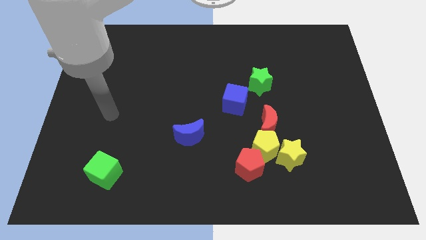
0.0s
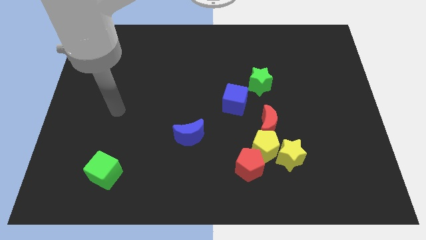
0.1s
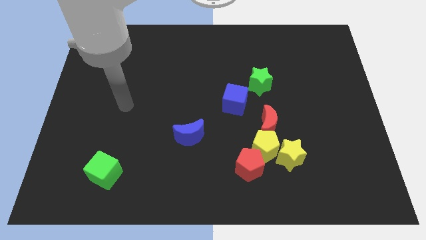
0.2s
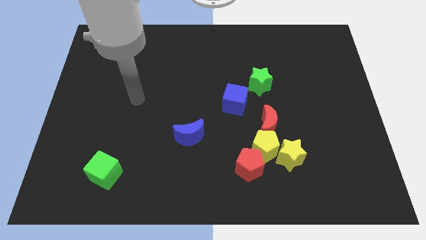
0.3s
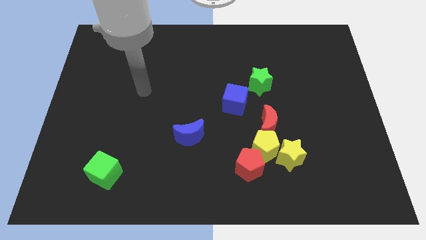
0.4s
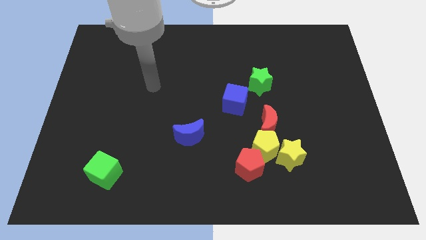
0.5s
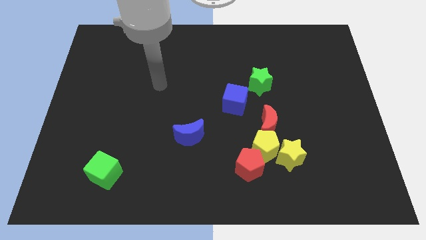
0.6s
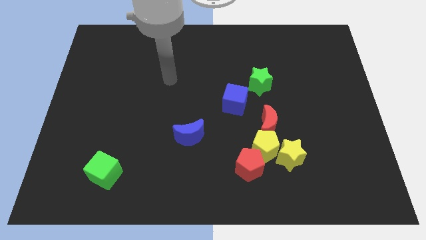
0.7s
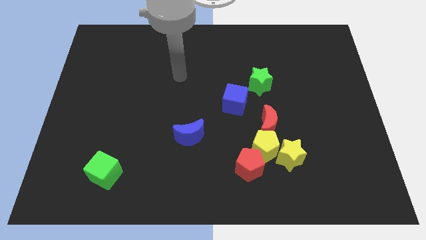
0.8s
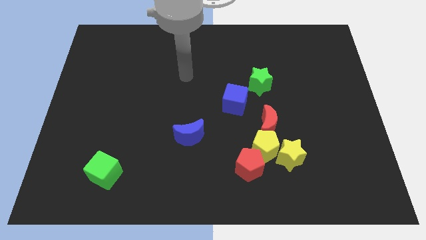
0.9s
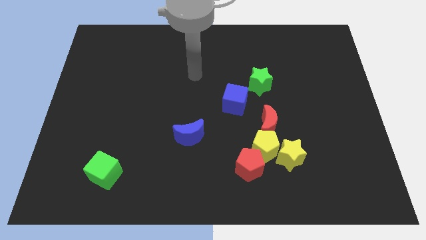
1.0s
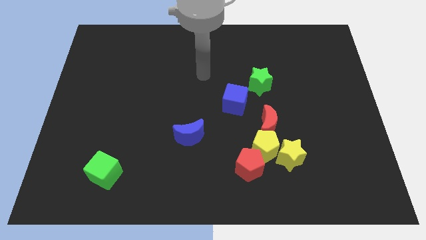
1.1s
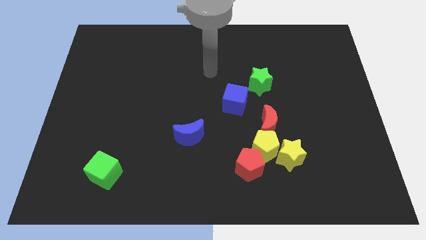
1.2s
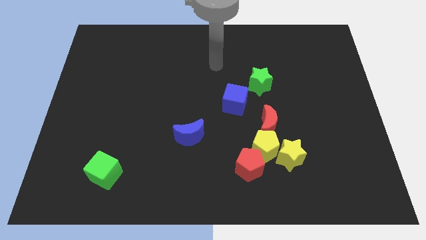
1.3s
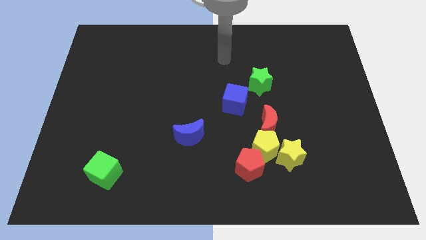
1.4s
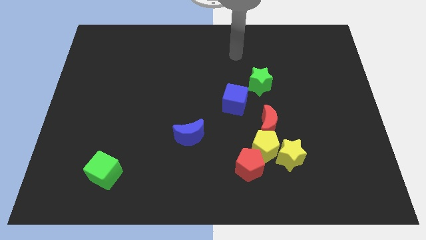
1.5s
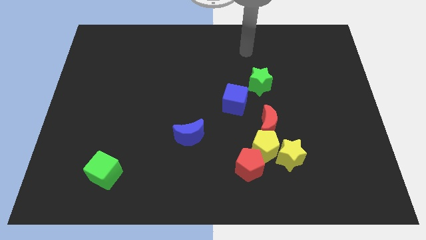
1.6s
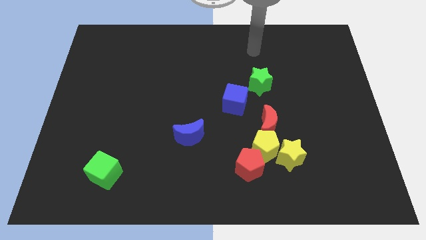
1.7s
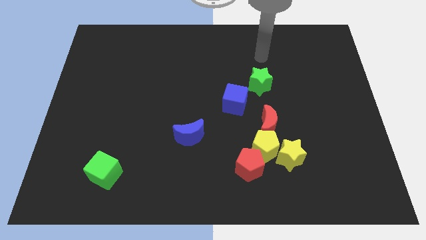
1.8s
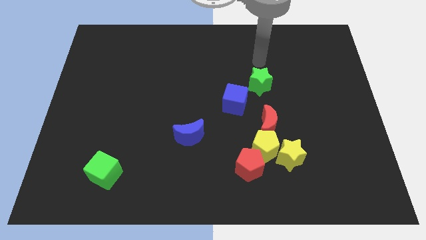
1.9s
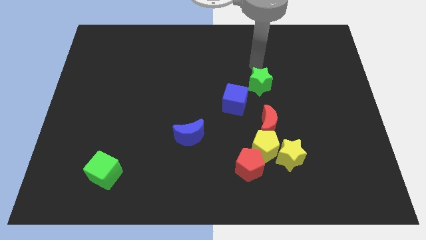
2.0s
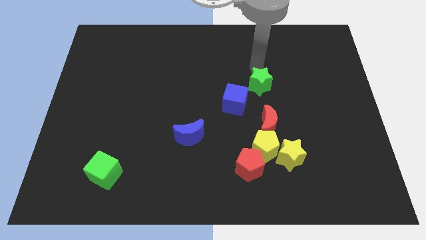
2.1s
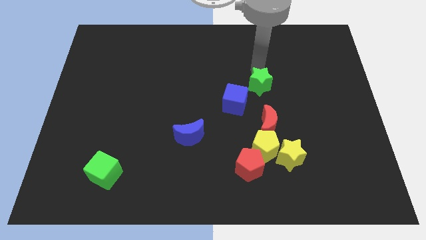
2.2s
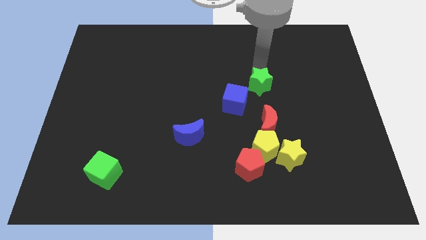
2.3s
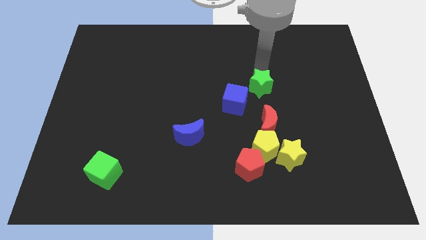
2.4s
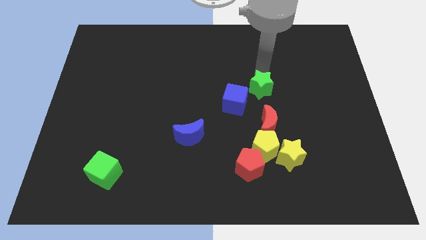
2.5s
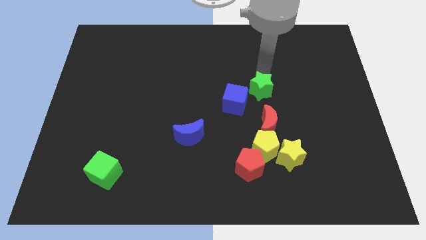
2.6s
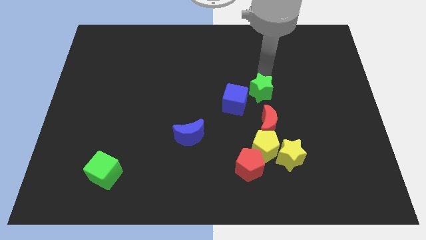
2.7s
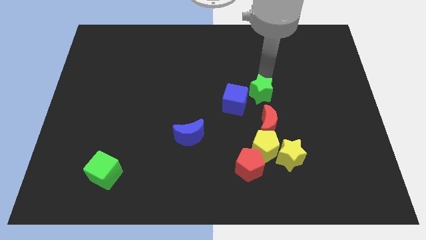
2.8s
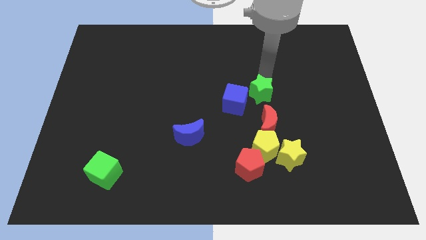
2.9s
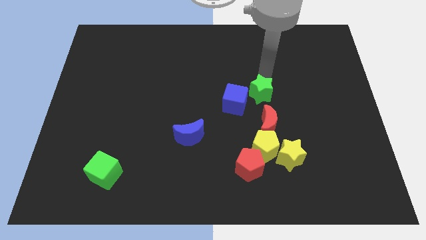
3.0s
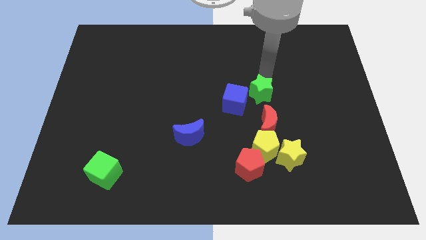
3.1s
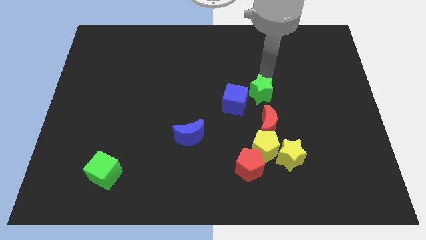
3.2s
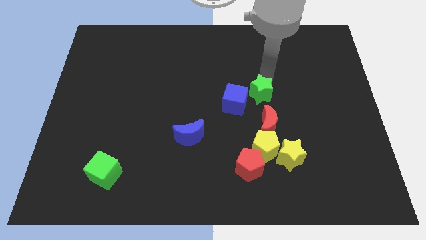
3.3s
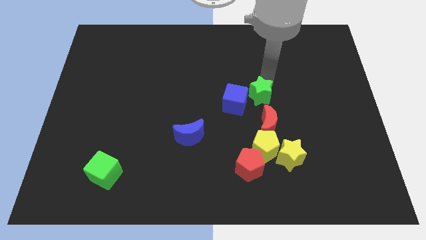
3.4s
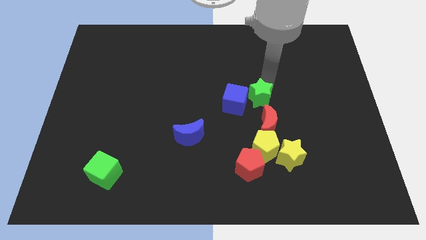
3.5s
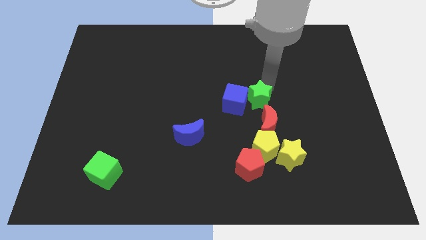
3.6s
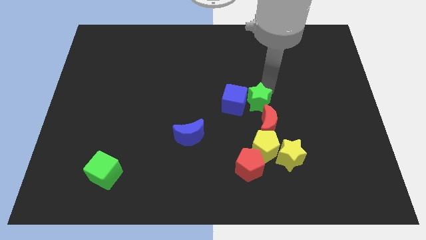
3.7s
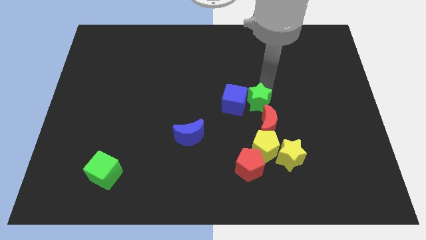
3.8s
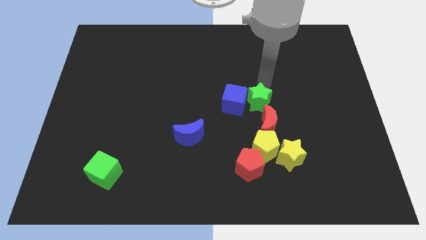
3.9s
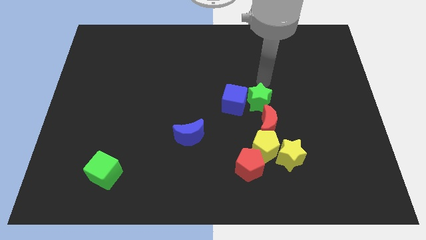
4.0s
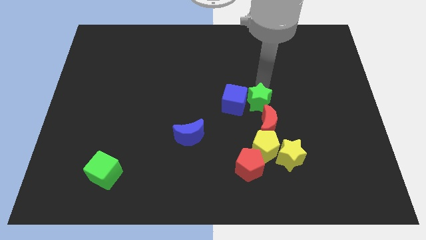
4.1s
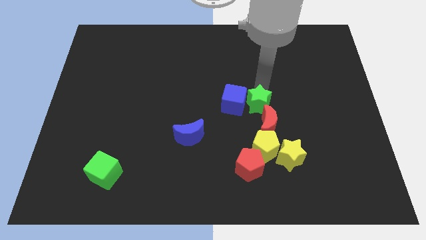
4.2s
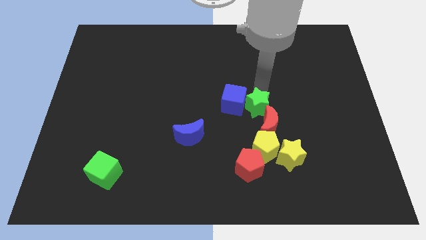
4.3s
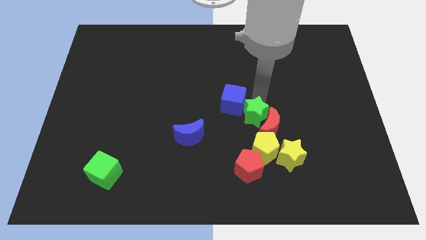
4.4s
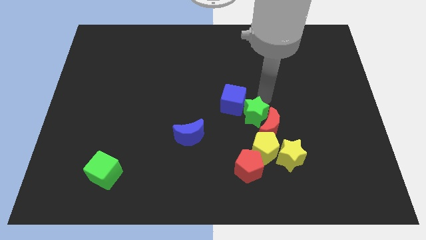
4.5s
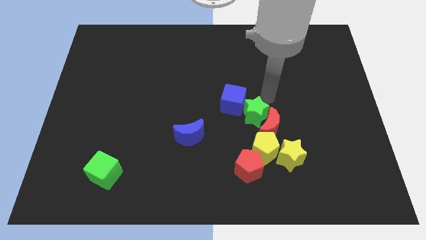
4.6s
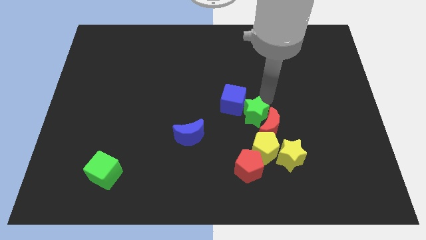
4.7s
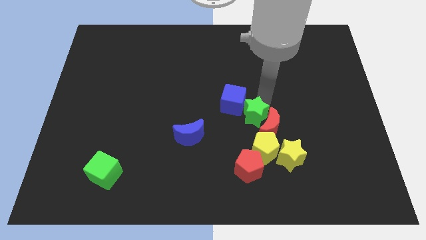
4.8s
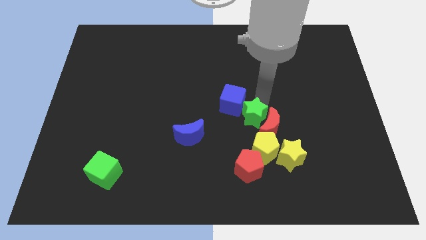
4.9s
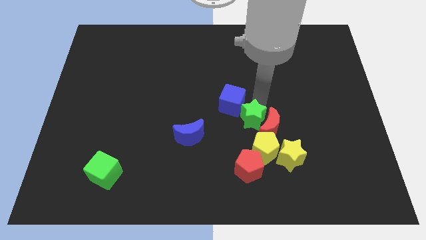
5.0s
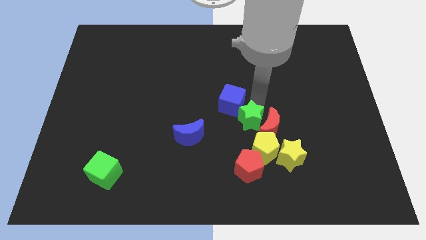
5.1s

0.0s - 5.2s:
slide the green star right of the blue moon

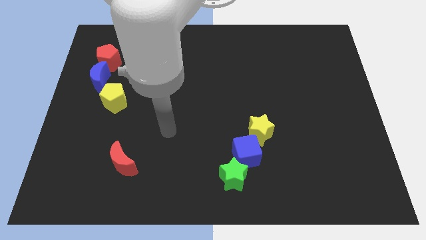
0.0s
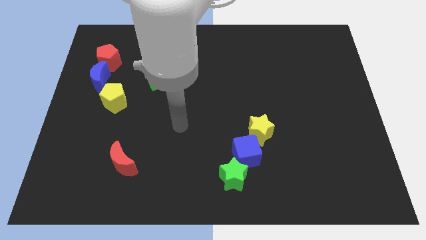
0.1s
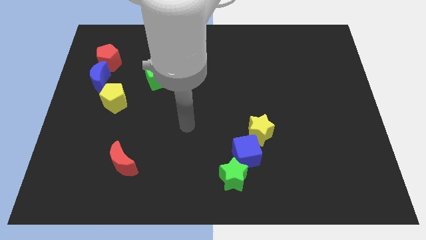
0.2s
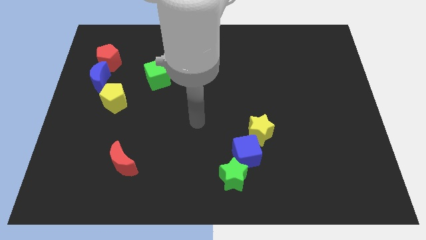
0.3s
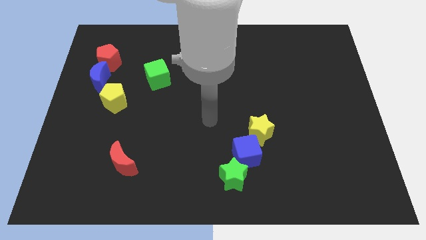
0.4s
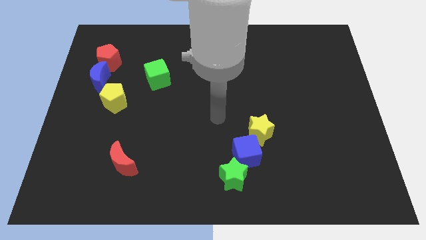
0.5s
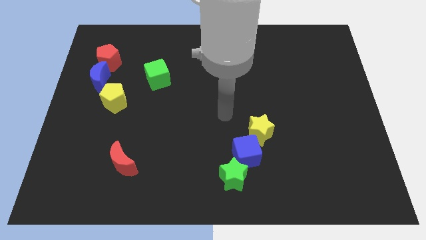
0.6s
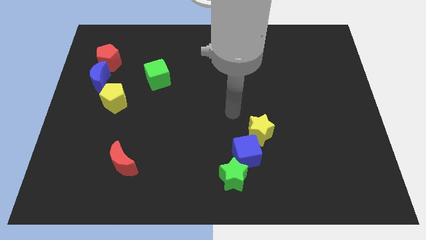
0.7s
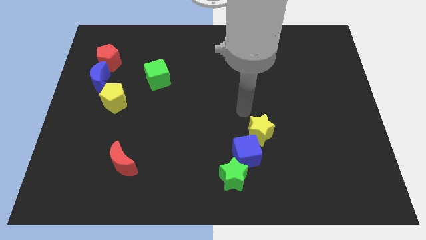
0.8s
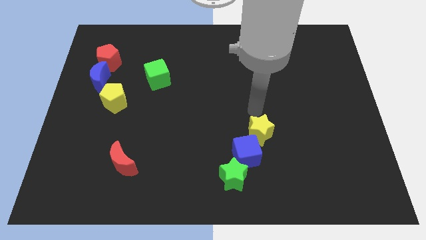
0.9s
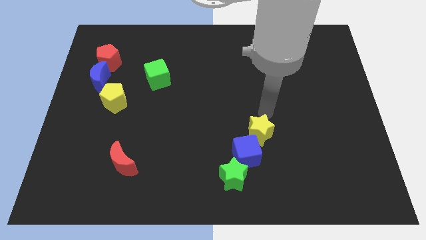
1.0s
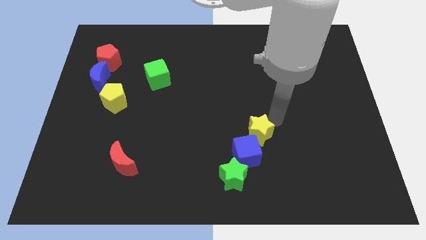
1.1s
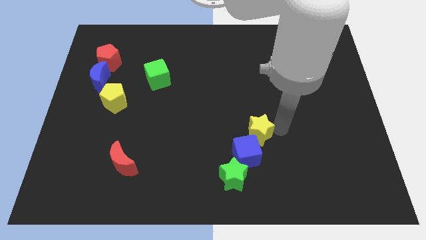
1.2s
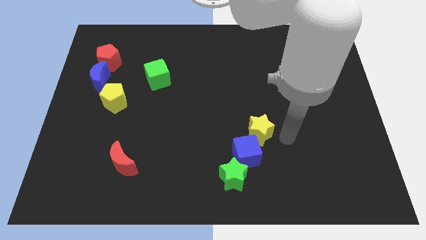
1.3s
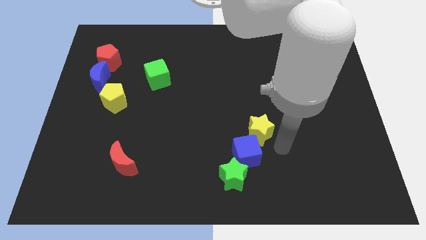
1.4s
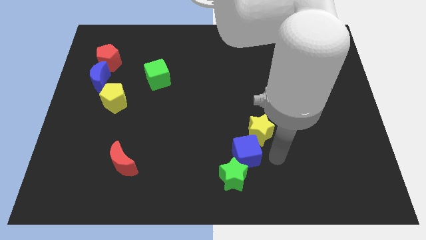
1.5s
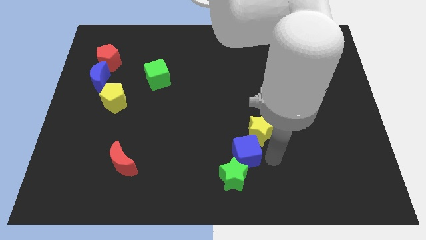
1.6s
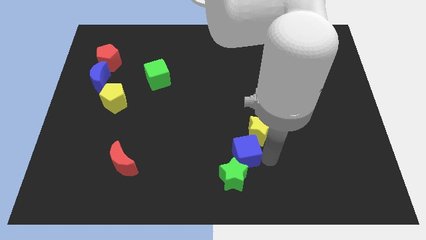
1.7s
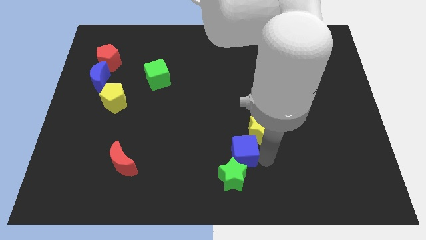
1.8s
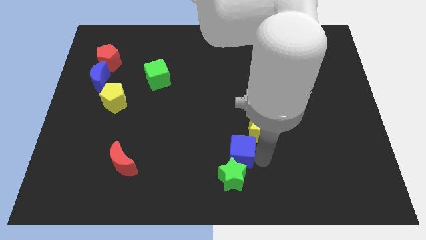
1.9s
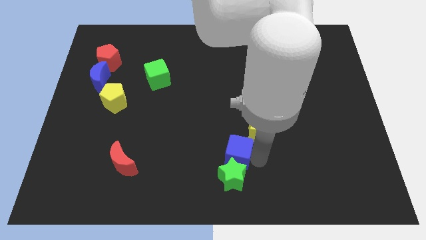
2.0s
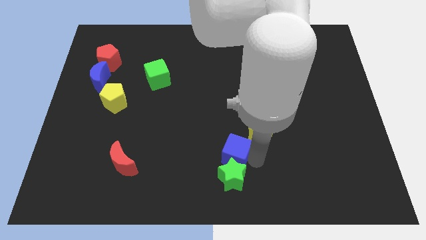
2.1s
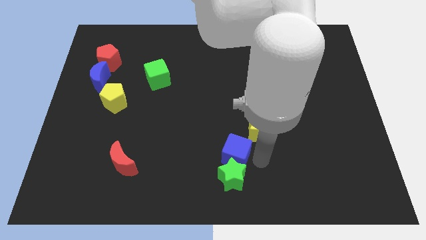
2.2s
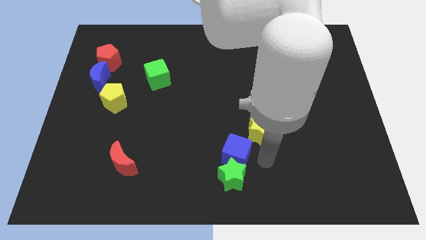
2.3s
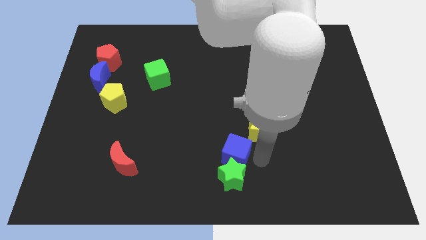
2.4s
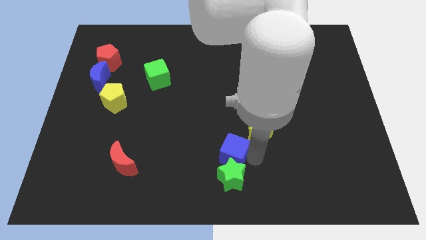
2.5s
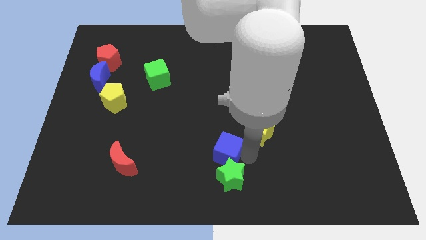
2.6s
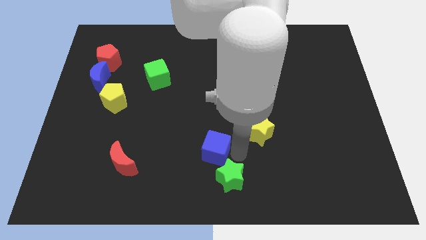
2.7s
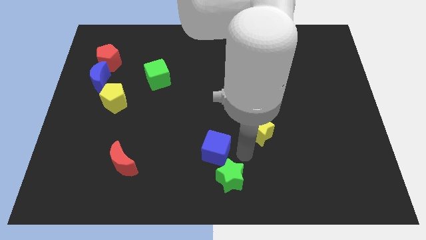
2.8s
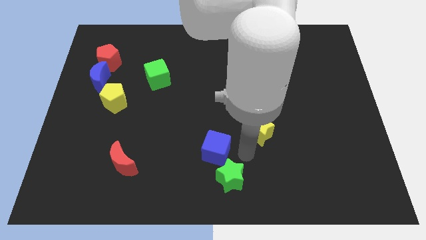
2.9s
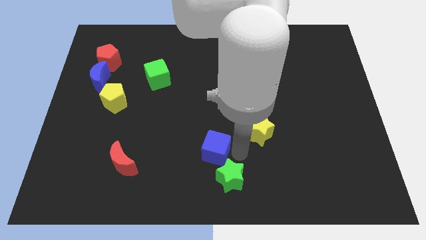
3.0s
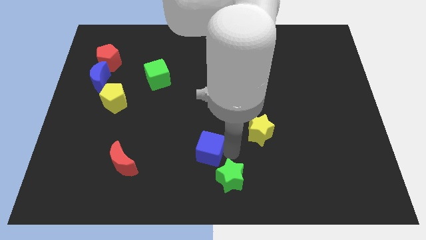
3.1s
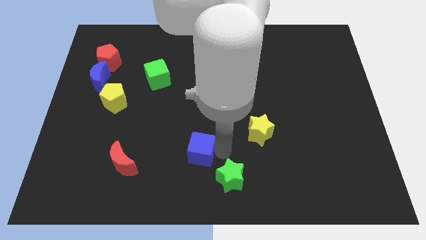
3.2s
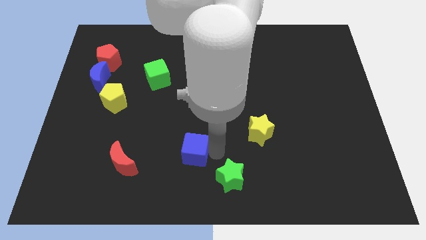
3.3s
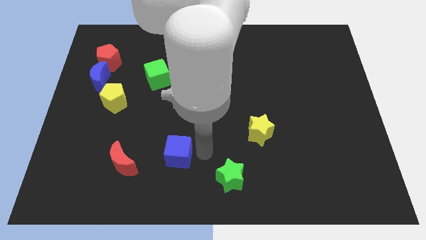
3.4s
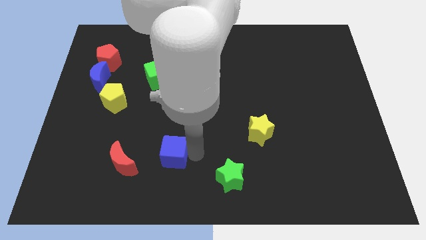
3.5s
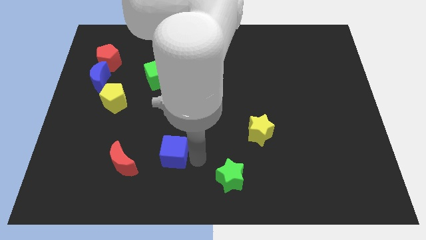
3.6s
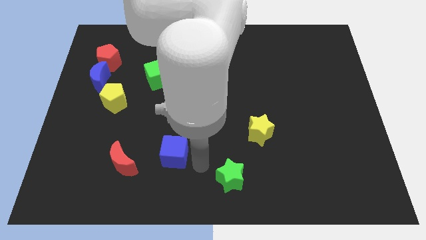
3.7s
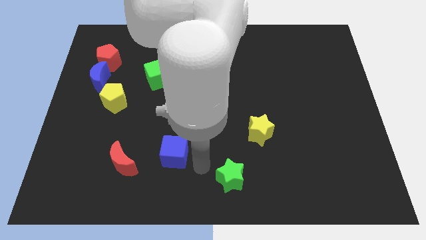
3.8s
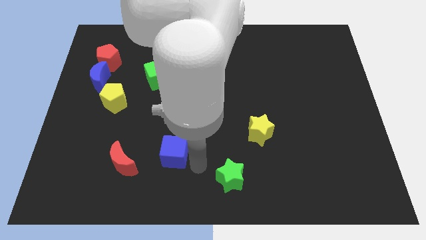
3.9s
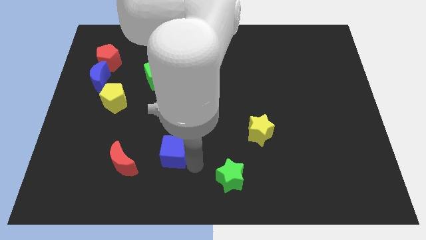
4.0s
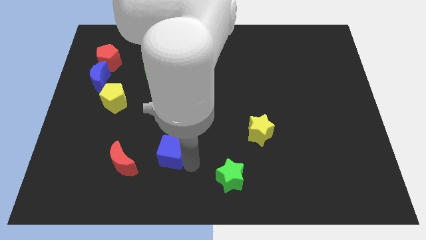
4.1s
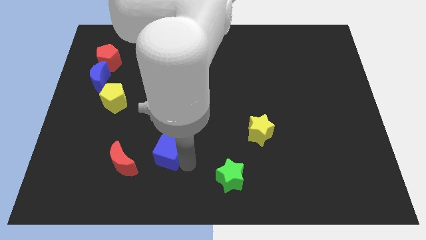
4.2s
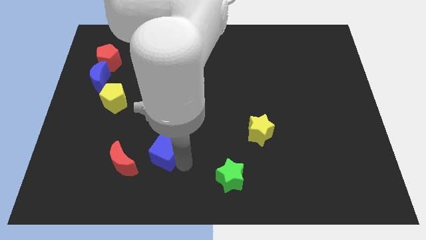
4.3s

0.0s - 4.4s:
move the blue cube diagonally up and to the right of the red moon
